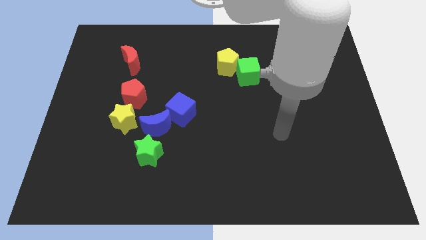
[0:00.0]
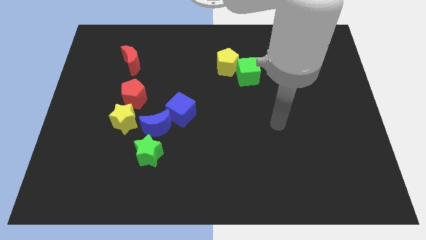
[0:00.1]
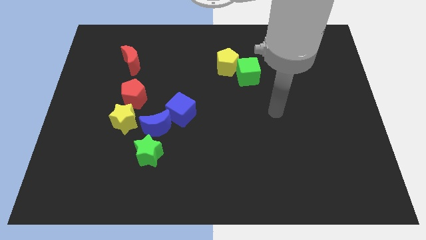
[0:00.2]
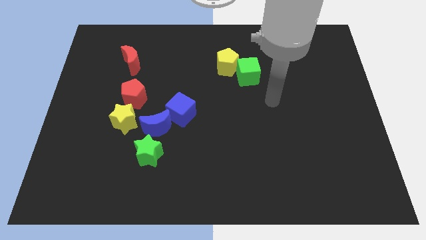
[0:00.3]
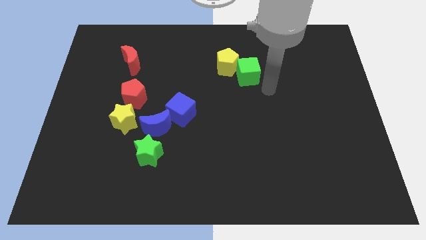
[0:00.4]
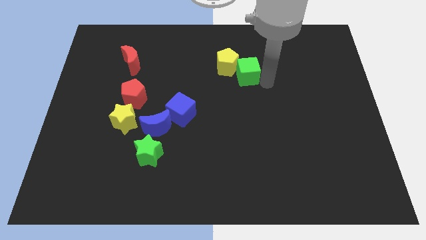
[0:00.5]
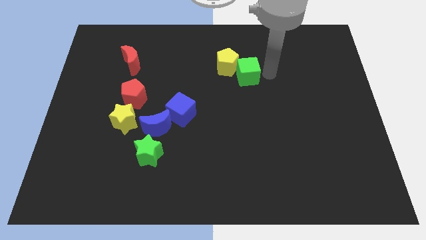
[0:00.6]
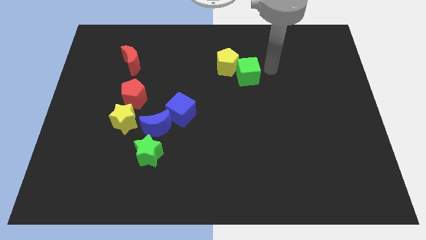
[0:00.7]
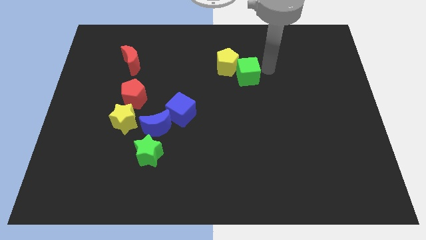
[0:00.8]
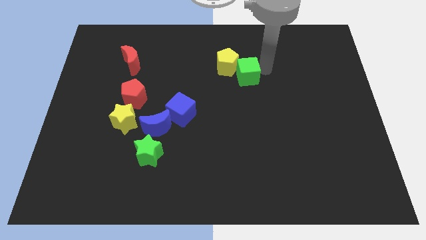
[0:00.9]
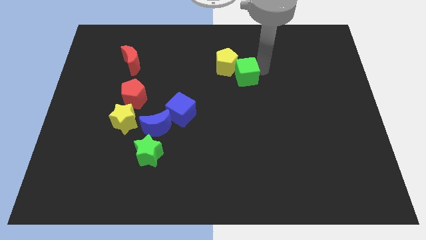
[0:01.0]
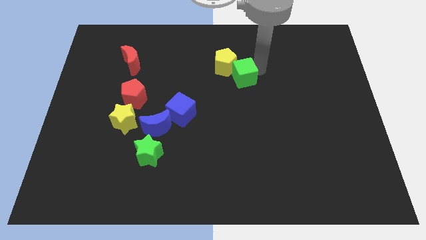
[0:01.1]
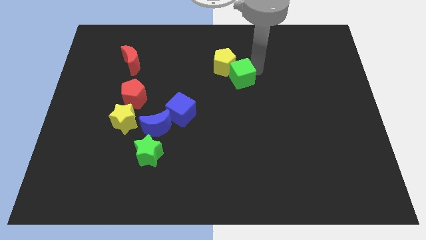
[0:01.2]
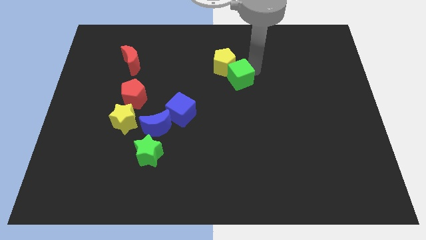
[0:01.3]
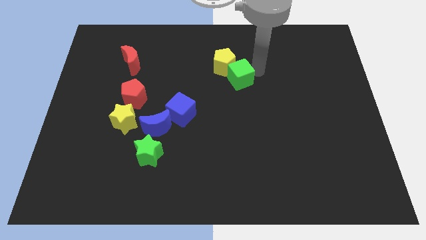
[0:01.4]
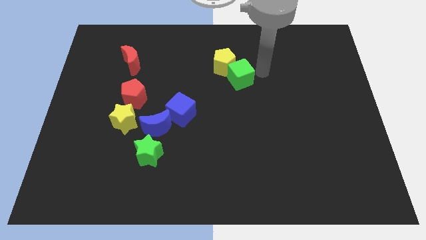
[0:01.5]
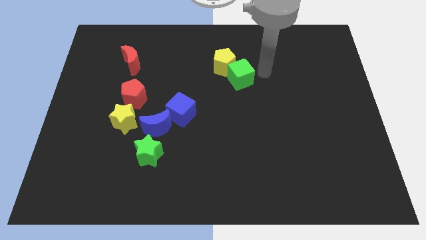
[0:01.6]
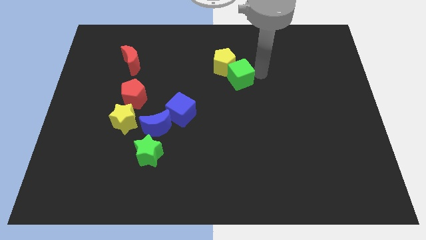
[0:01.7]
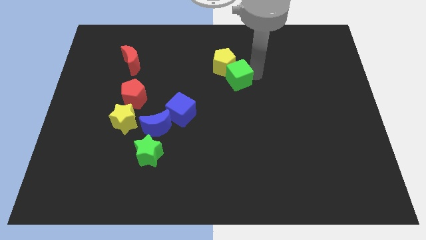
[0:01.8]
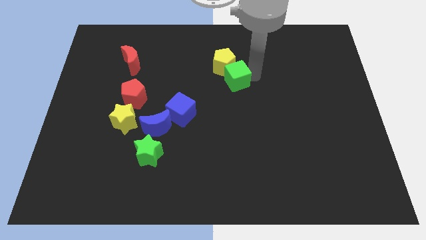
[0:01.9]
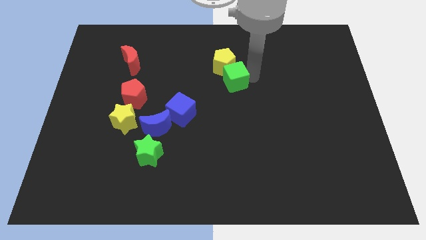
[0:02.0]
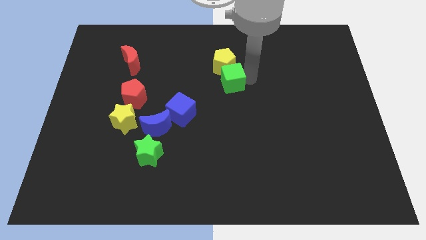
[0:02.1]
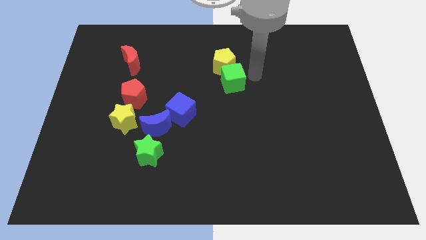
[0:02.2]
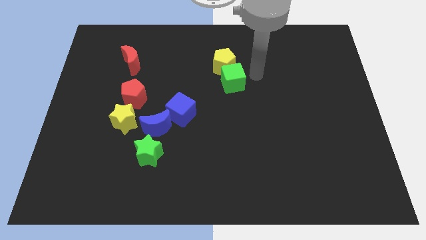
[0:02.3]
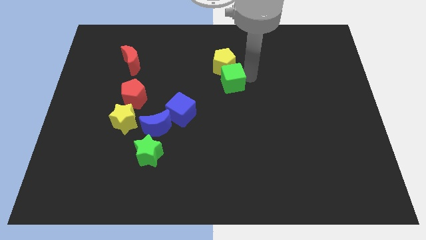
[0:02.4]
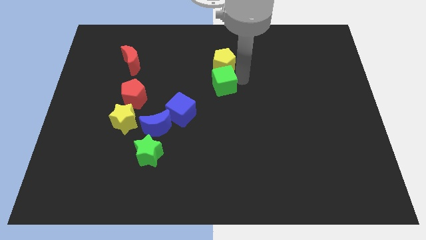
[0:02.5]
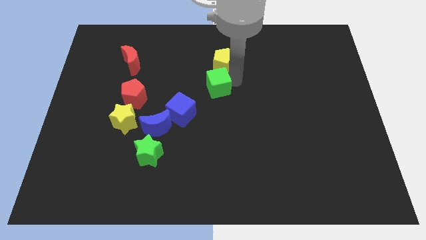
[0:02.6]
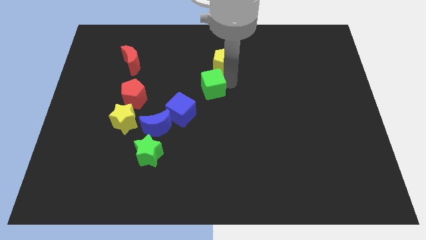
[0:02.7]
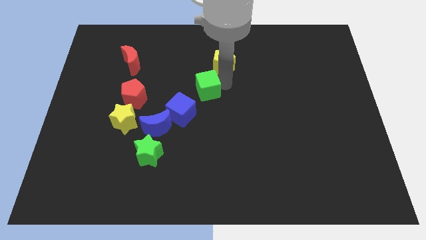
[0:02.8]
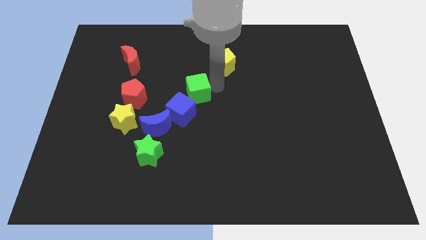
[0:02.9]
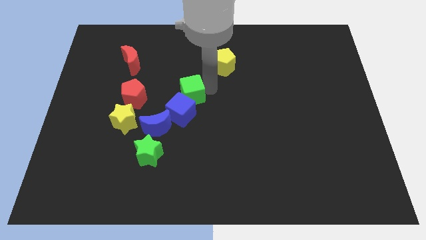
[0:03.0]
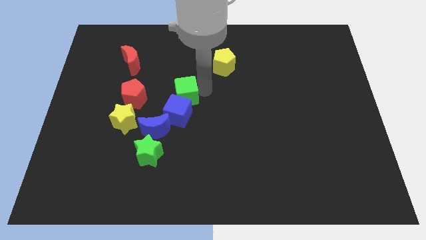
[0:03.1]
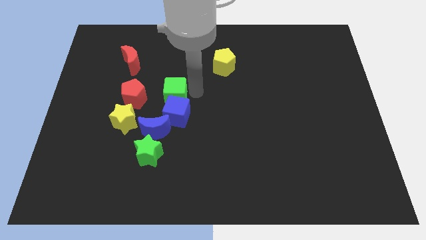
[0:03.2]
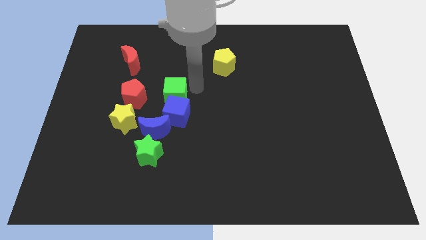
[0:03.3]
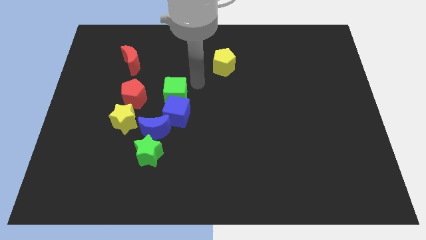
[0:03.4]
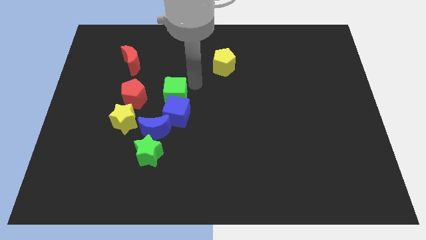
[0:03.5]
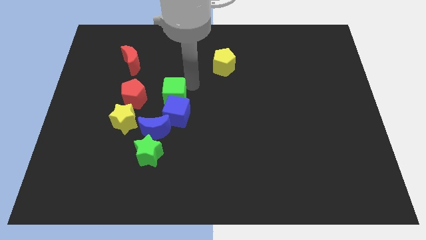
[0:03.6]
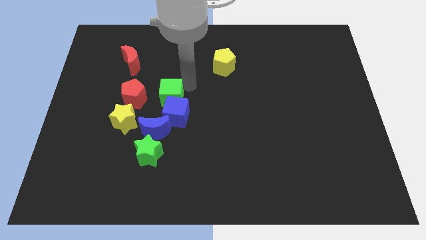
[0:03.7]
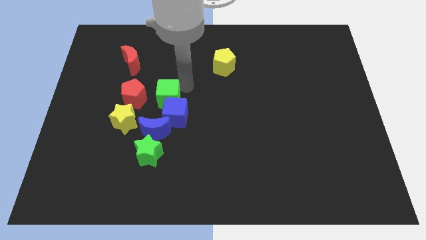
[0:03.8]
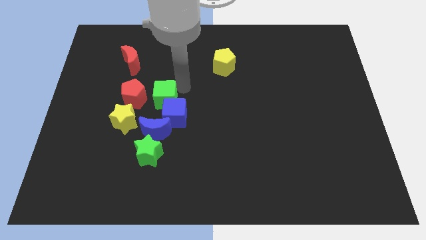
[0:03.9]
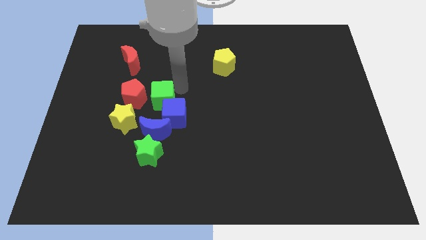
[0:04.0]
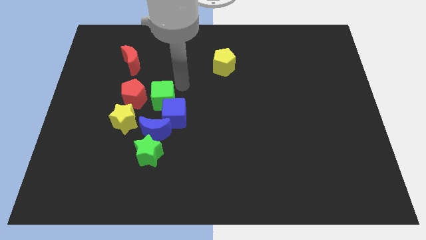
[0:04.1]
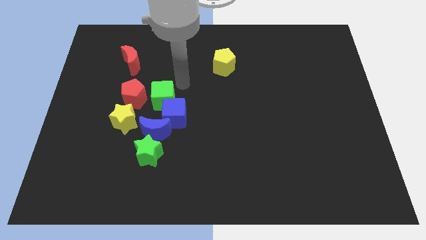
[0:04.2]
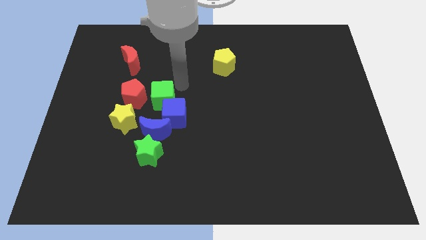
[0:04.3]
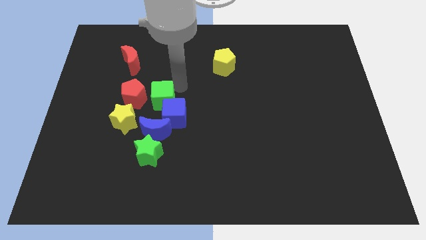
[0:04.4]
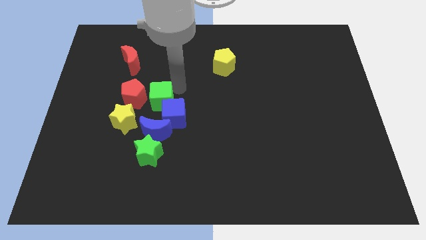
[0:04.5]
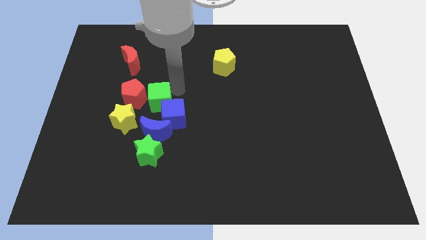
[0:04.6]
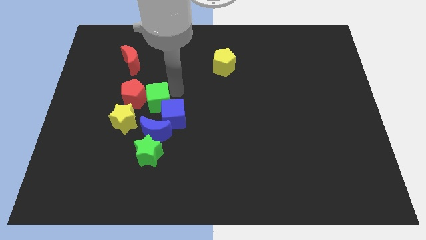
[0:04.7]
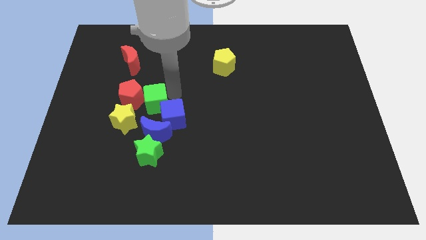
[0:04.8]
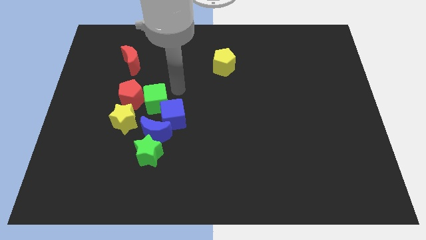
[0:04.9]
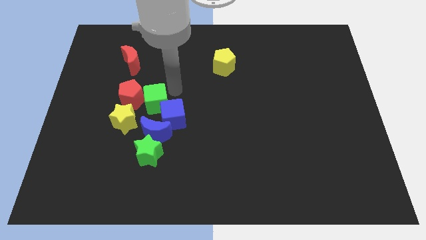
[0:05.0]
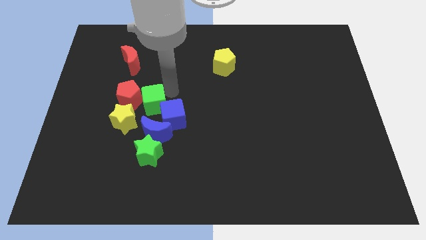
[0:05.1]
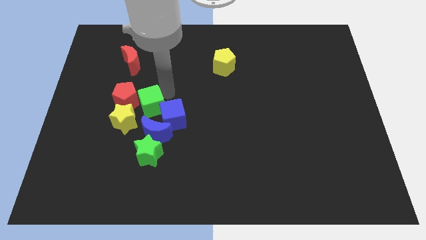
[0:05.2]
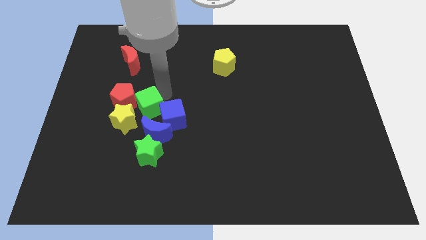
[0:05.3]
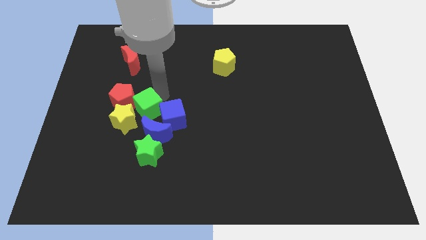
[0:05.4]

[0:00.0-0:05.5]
put the green cube to the yellow star

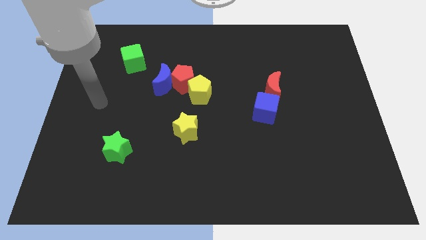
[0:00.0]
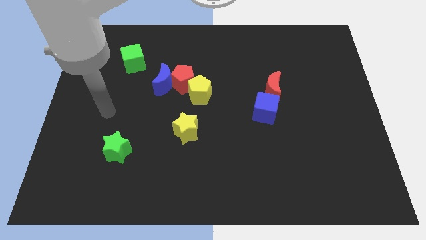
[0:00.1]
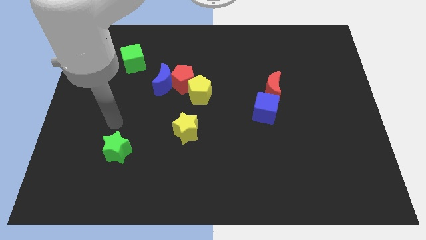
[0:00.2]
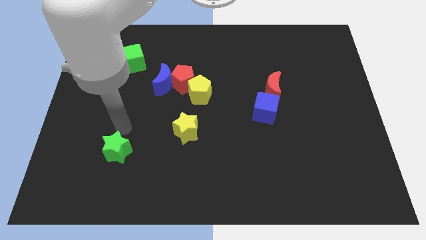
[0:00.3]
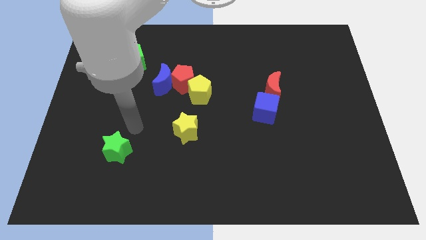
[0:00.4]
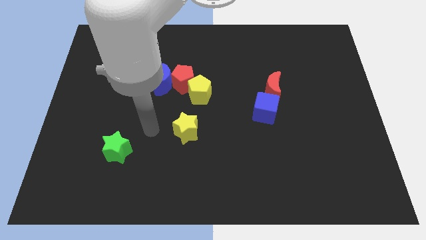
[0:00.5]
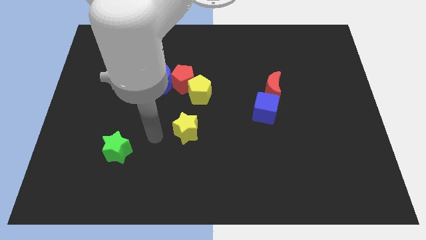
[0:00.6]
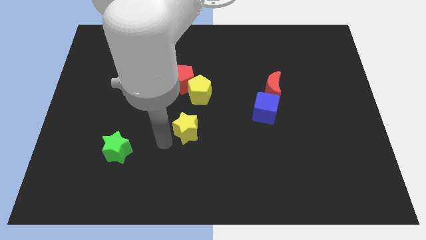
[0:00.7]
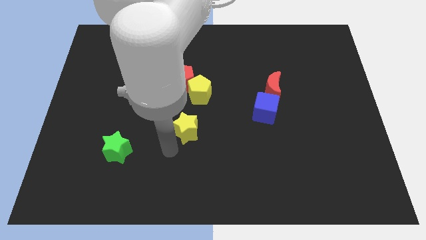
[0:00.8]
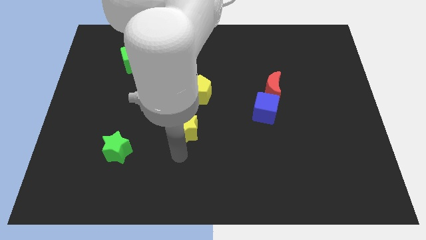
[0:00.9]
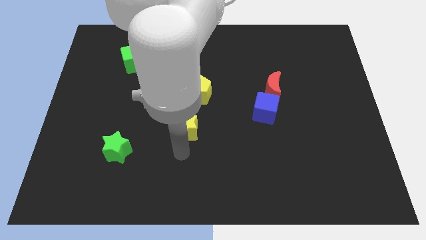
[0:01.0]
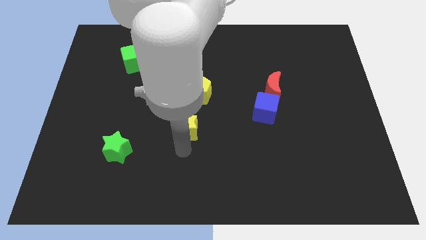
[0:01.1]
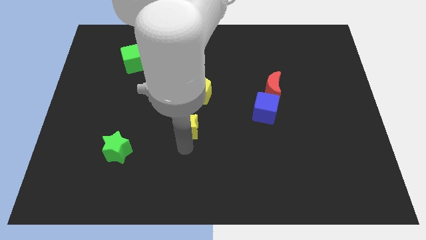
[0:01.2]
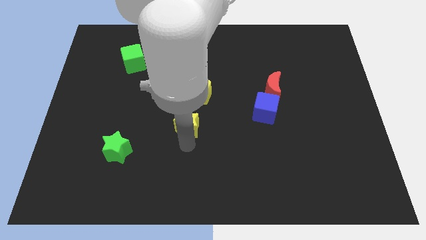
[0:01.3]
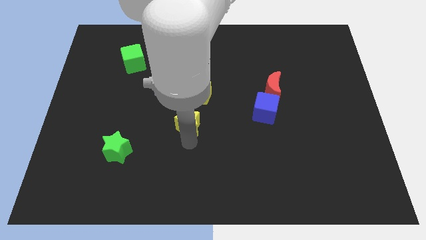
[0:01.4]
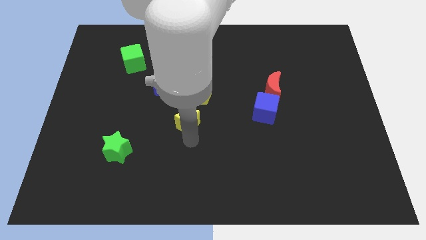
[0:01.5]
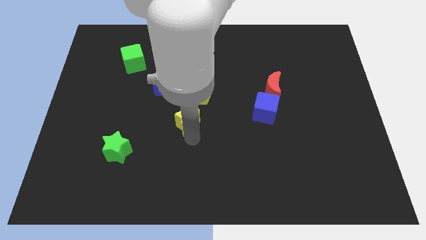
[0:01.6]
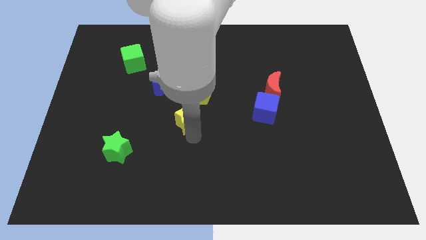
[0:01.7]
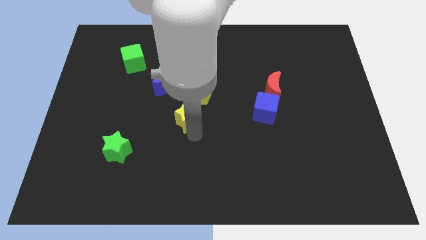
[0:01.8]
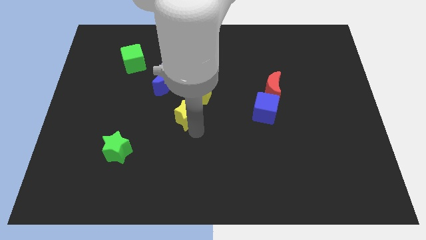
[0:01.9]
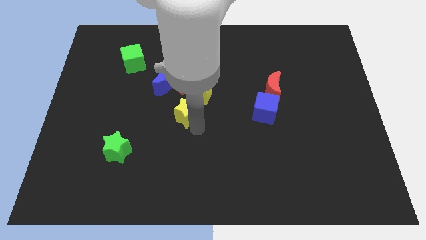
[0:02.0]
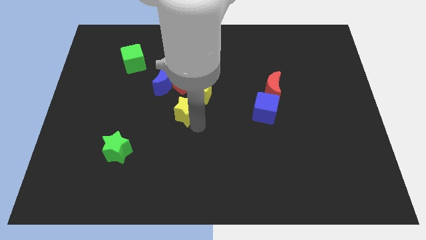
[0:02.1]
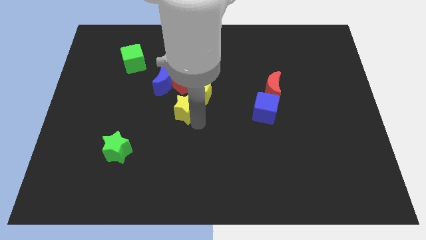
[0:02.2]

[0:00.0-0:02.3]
move the yellow star to the yellow pentagon

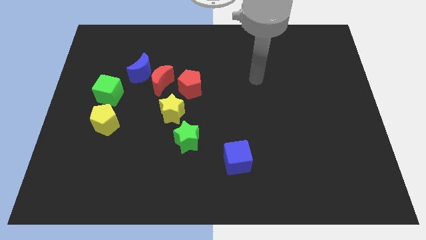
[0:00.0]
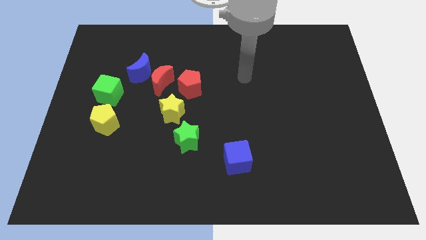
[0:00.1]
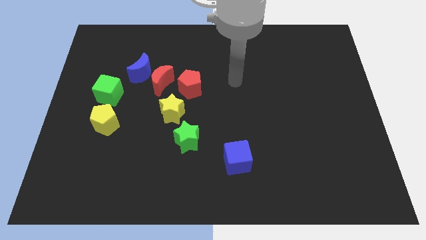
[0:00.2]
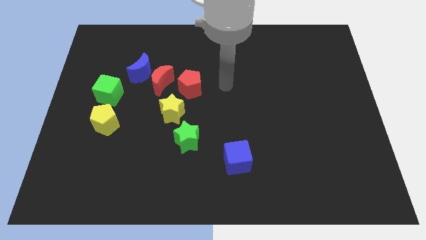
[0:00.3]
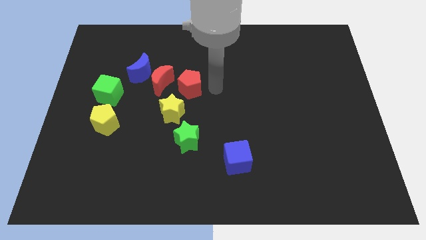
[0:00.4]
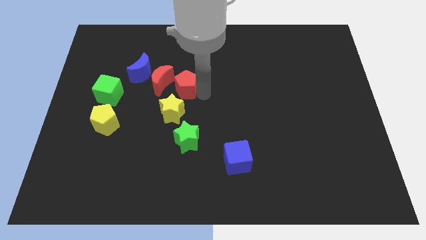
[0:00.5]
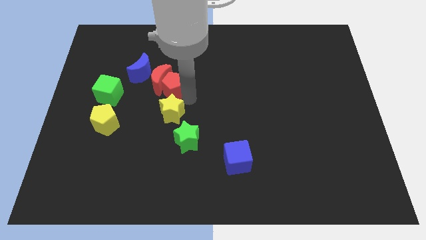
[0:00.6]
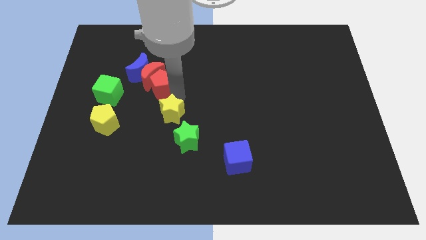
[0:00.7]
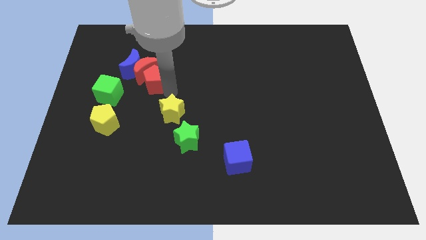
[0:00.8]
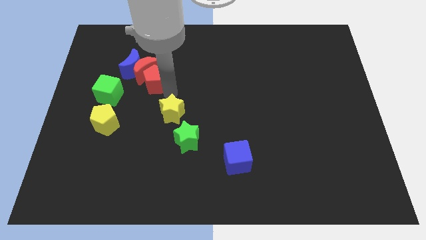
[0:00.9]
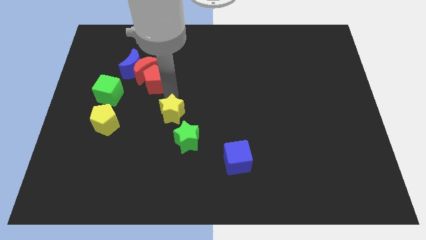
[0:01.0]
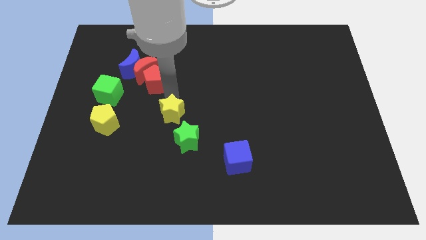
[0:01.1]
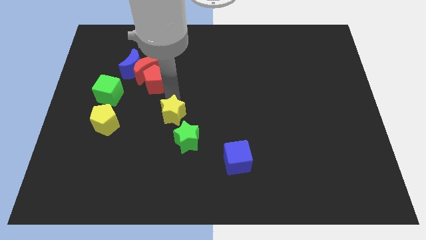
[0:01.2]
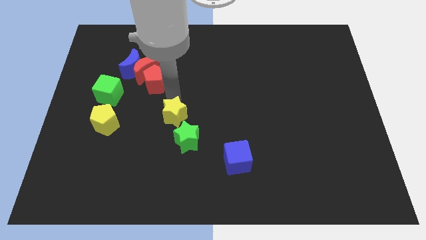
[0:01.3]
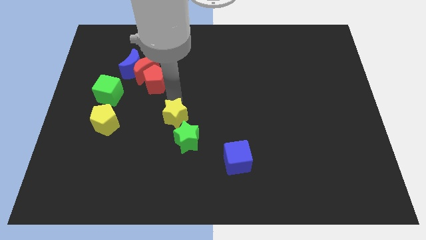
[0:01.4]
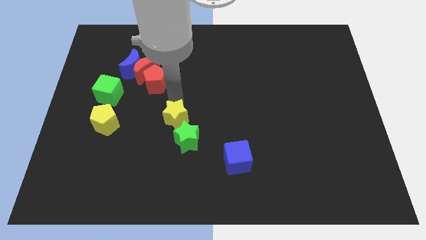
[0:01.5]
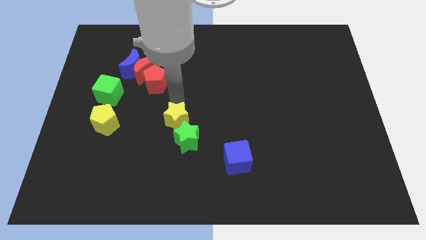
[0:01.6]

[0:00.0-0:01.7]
move the yellow star close to the green star
